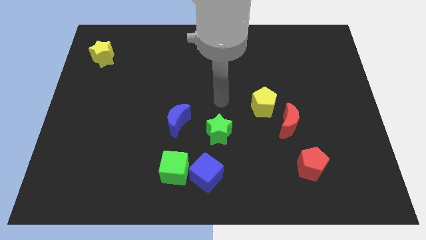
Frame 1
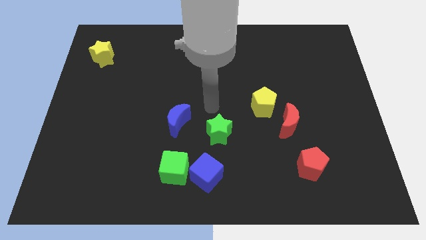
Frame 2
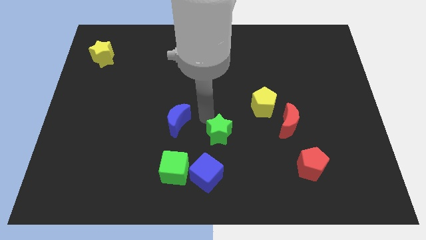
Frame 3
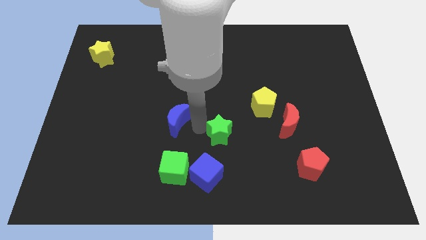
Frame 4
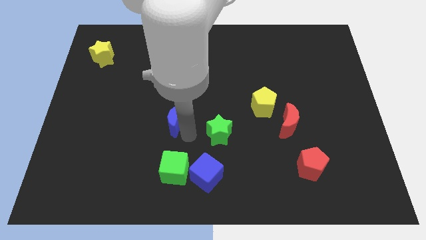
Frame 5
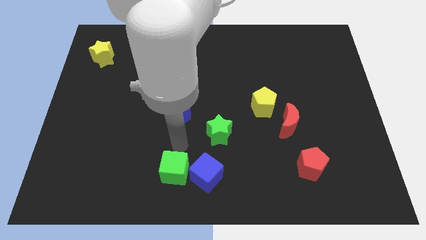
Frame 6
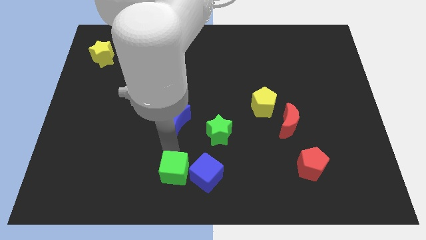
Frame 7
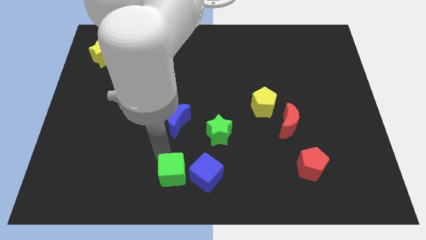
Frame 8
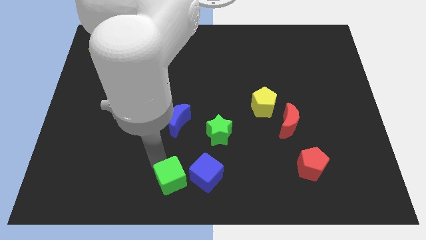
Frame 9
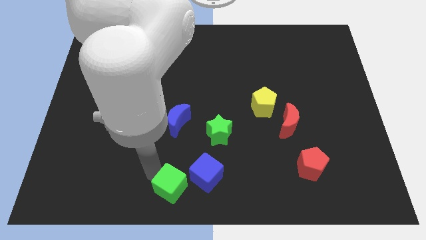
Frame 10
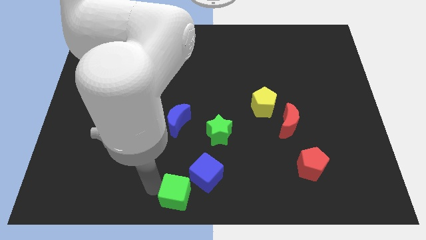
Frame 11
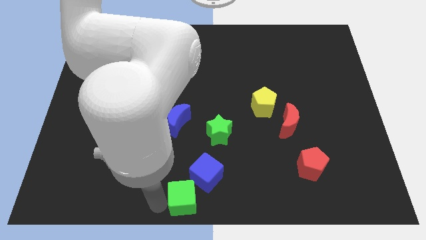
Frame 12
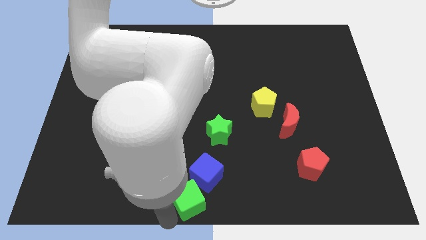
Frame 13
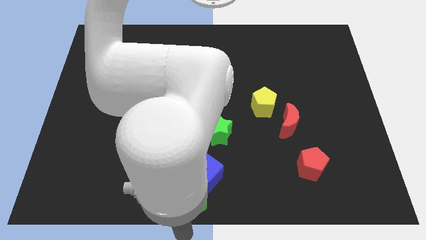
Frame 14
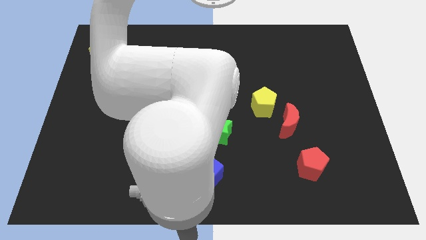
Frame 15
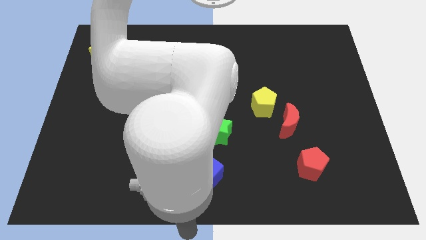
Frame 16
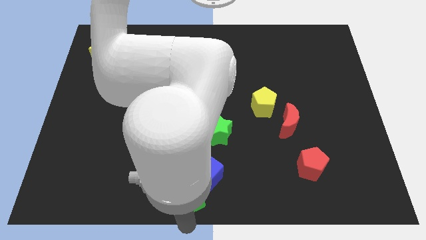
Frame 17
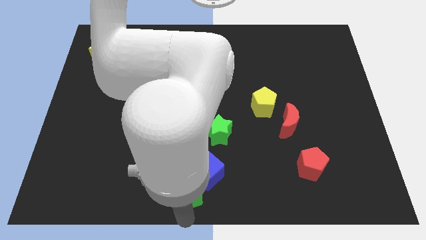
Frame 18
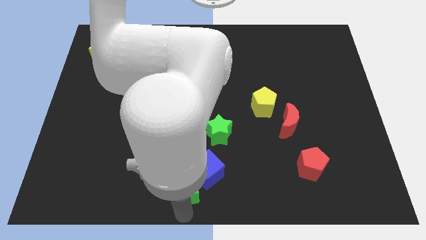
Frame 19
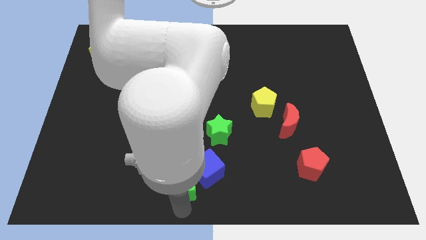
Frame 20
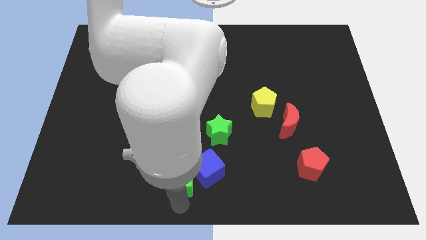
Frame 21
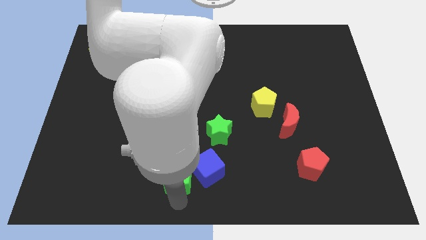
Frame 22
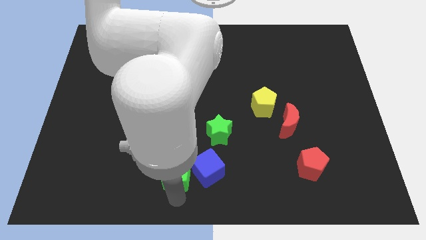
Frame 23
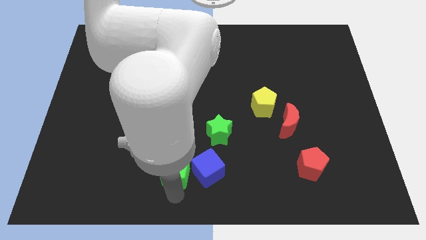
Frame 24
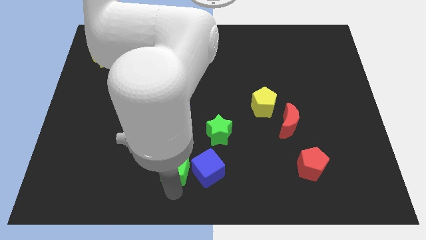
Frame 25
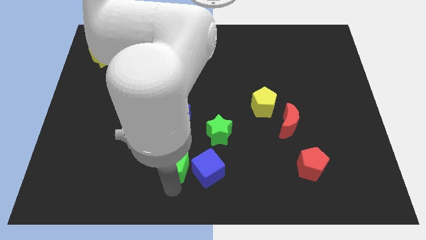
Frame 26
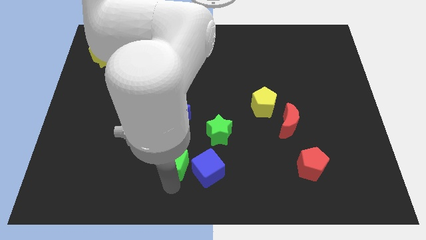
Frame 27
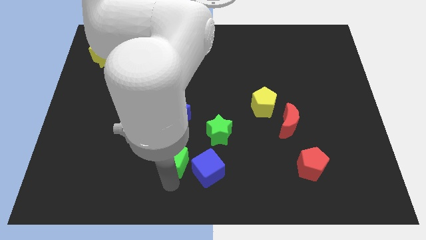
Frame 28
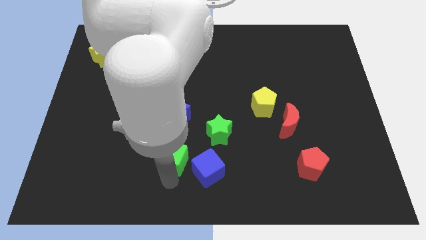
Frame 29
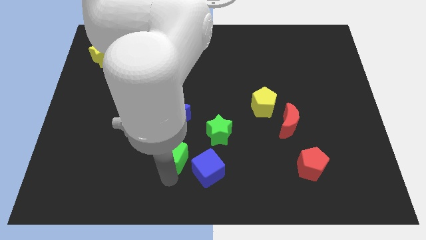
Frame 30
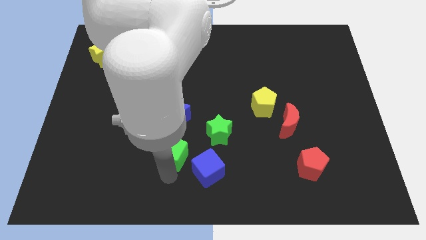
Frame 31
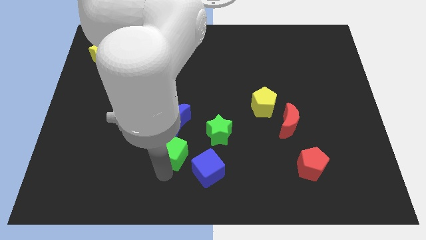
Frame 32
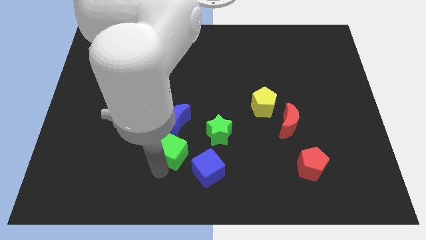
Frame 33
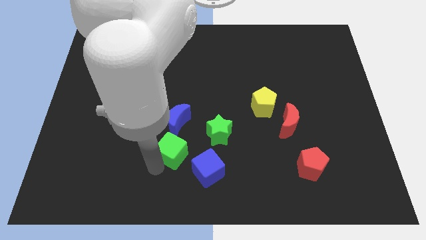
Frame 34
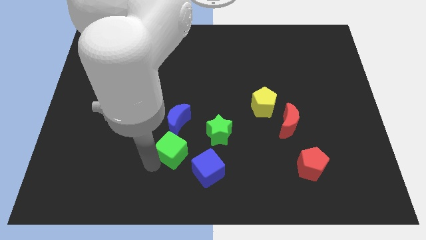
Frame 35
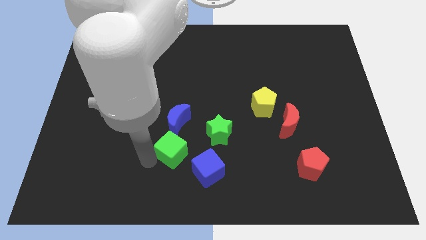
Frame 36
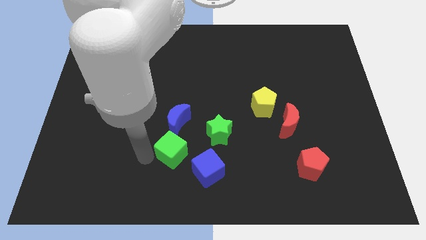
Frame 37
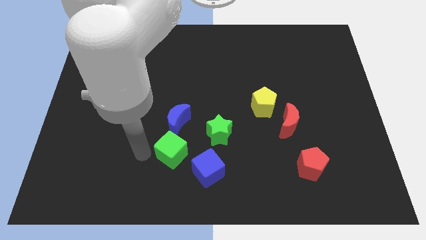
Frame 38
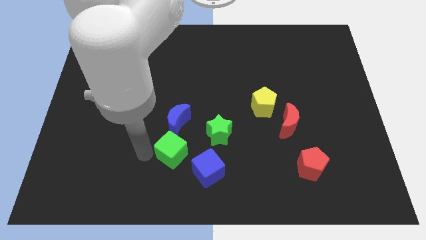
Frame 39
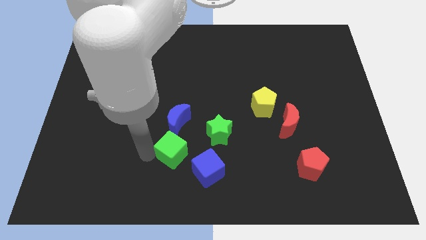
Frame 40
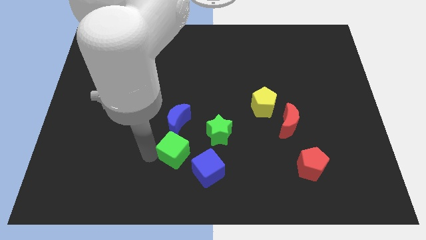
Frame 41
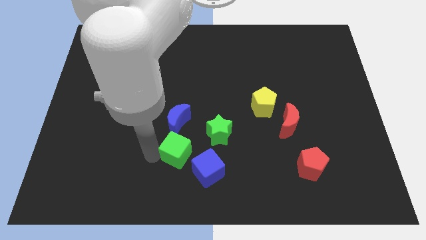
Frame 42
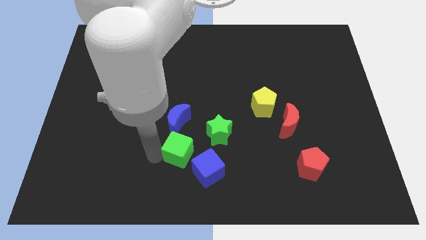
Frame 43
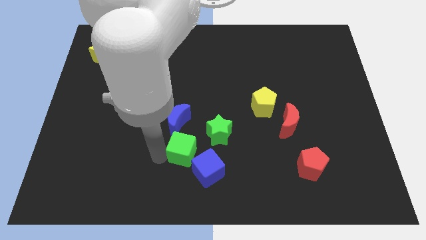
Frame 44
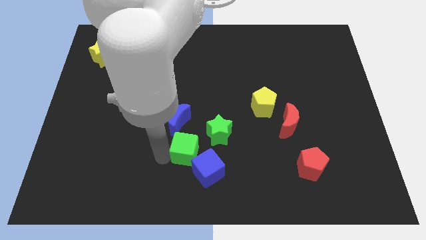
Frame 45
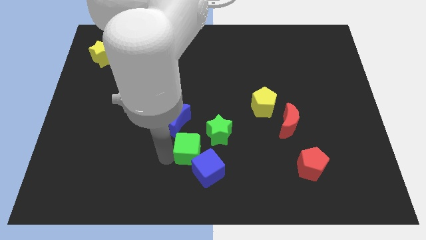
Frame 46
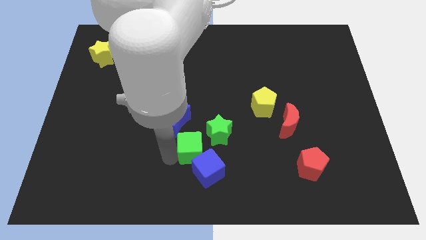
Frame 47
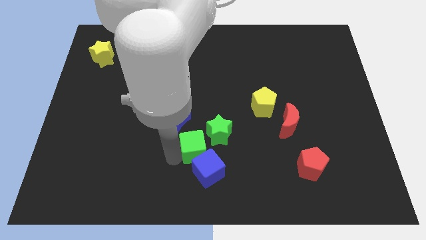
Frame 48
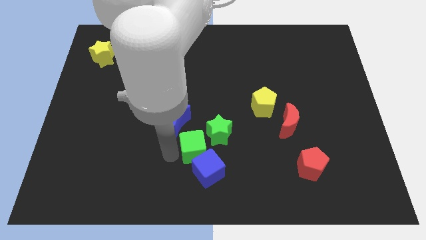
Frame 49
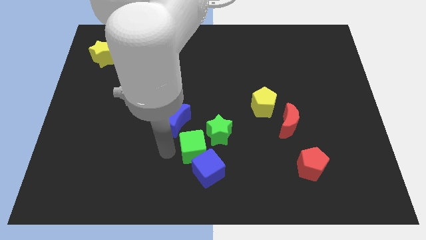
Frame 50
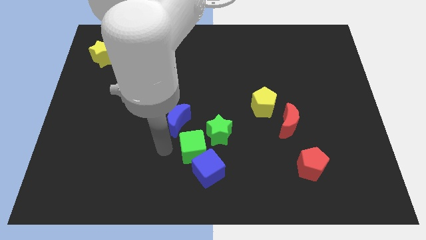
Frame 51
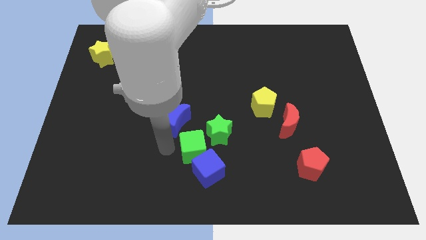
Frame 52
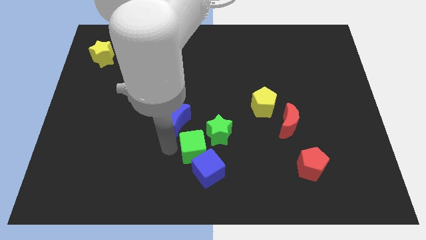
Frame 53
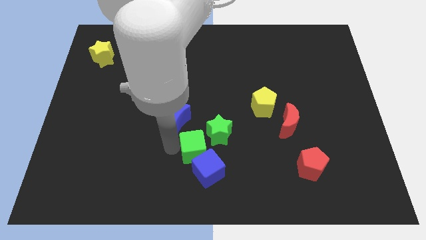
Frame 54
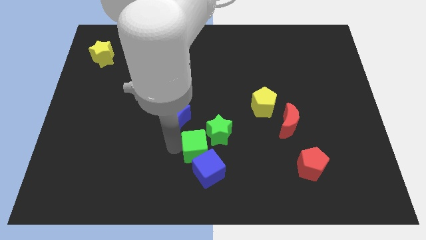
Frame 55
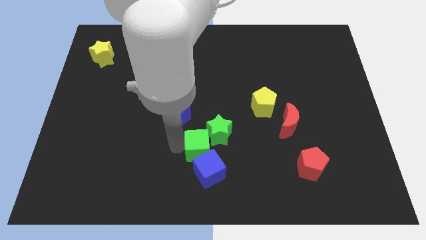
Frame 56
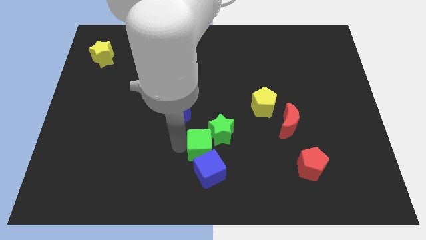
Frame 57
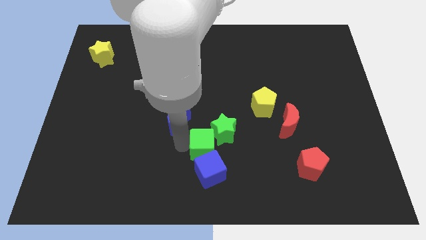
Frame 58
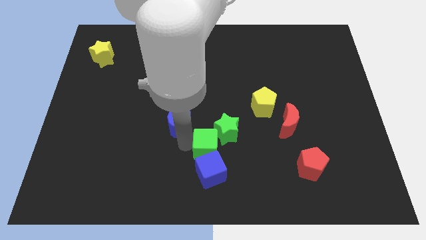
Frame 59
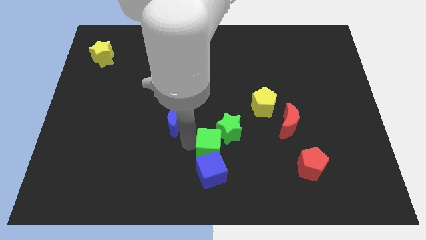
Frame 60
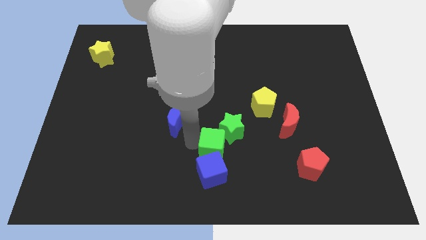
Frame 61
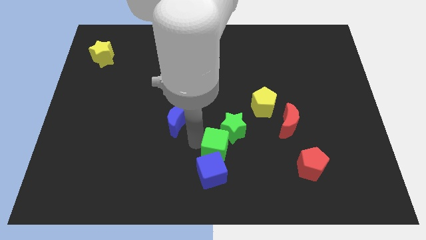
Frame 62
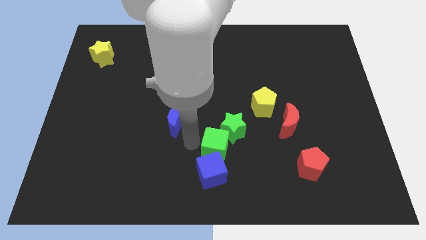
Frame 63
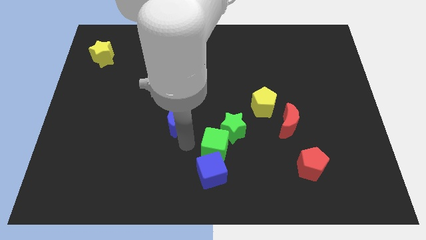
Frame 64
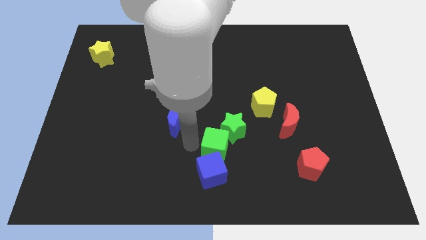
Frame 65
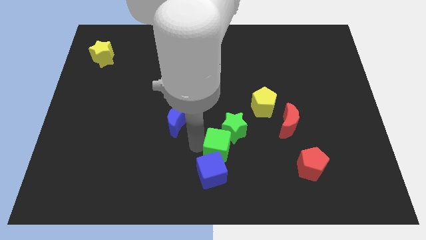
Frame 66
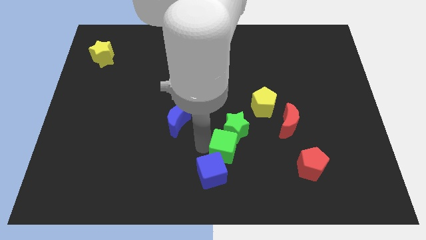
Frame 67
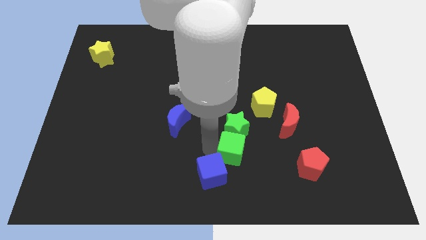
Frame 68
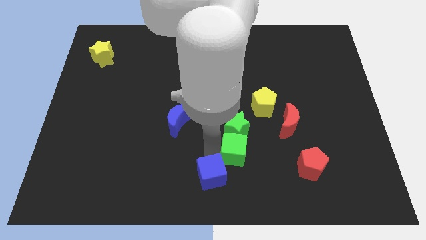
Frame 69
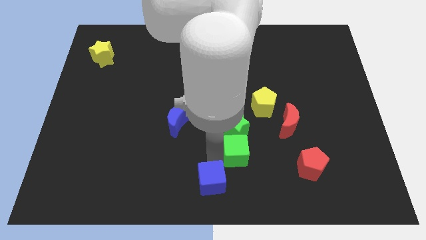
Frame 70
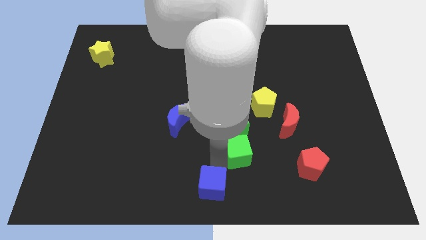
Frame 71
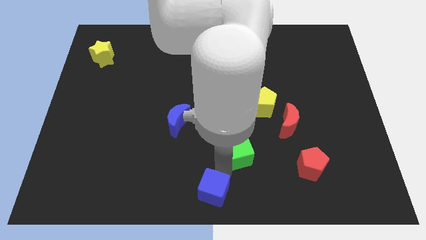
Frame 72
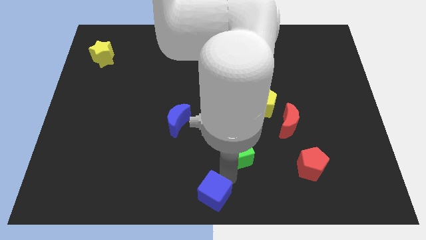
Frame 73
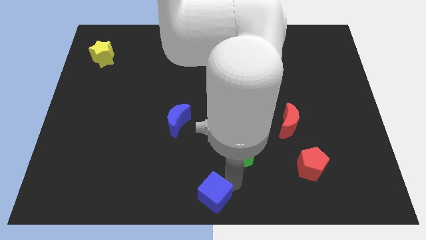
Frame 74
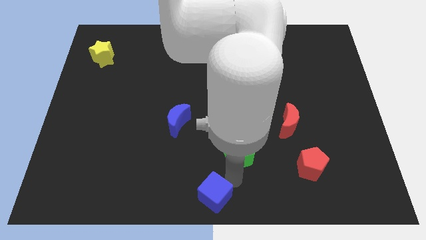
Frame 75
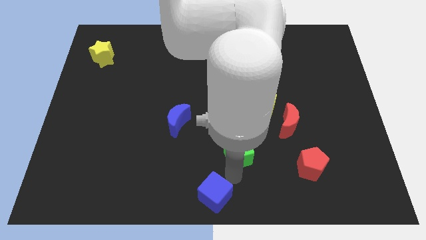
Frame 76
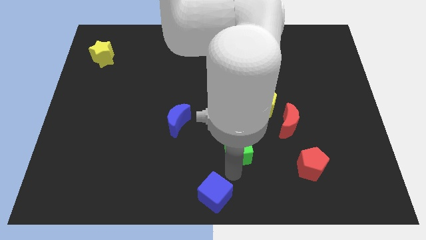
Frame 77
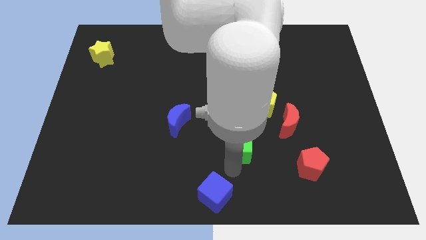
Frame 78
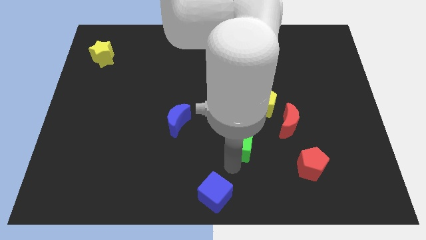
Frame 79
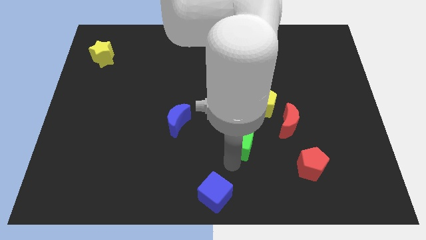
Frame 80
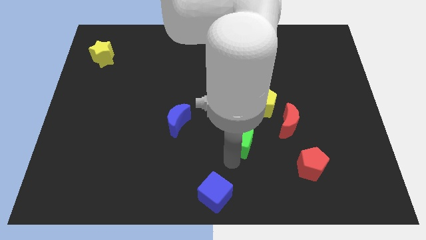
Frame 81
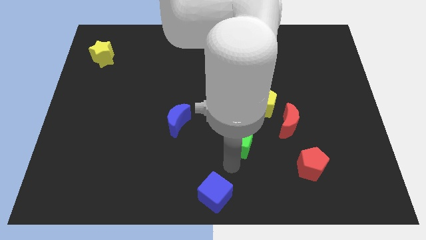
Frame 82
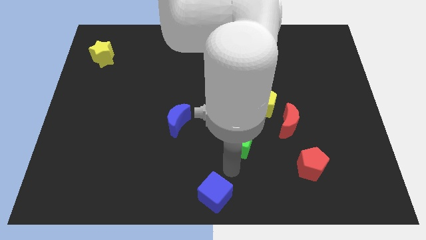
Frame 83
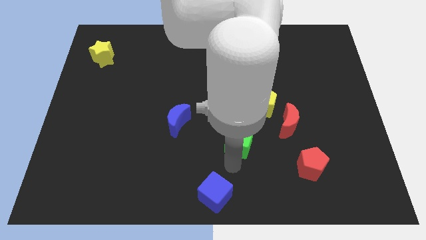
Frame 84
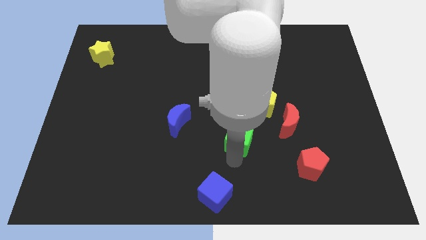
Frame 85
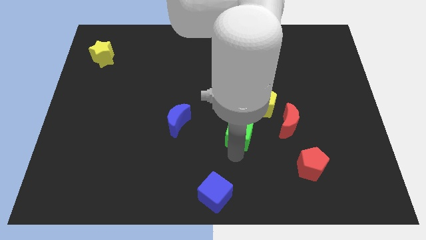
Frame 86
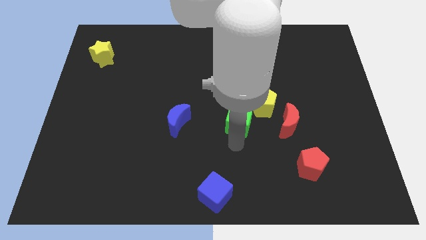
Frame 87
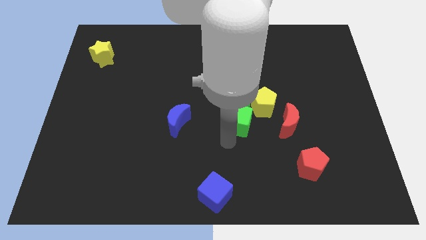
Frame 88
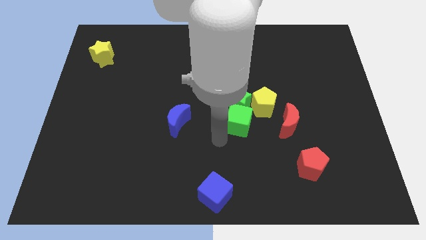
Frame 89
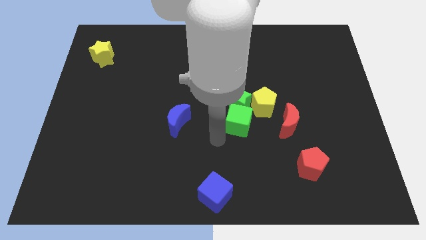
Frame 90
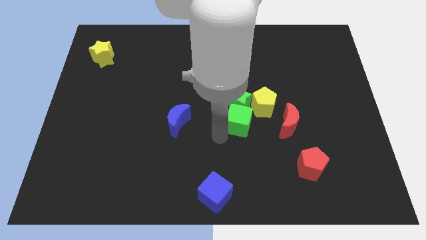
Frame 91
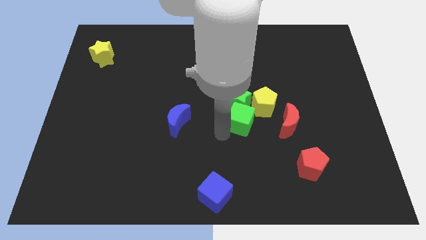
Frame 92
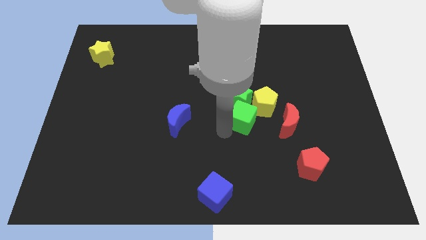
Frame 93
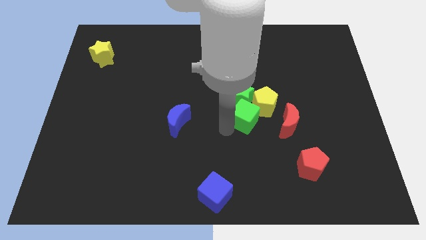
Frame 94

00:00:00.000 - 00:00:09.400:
put the green cube next to the yellow pentagon
